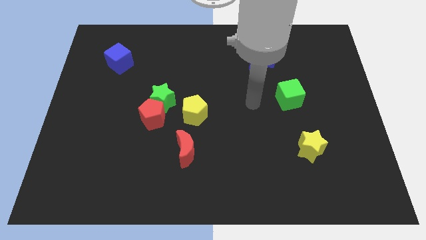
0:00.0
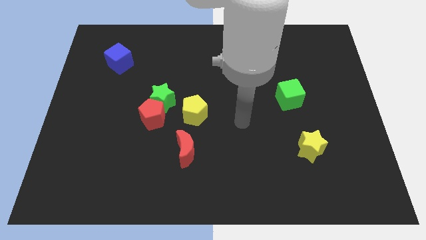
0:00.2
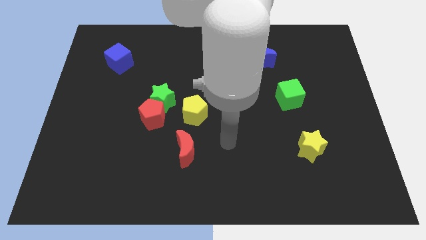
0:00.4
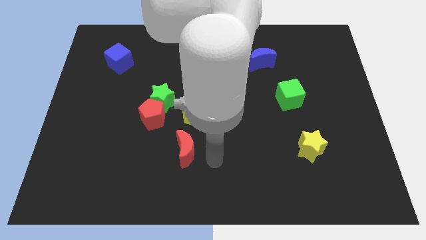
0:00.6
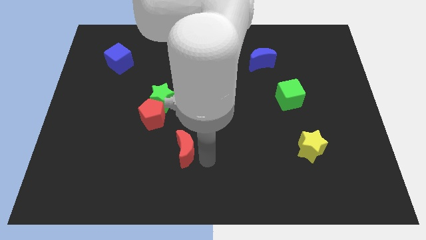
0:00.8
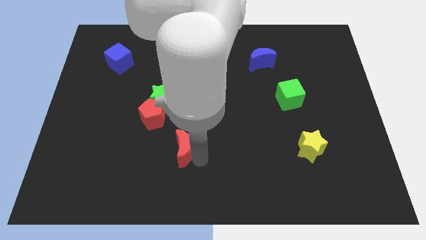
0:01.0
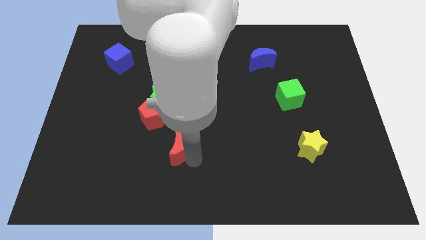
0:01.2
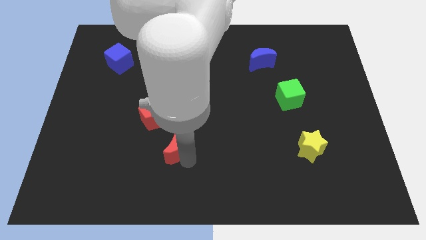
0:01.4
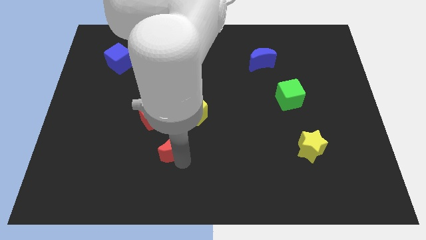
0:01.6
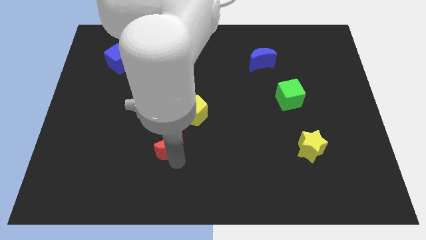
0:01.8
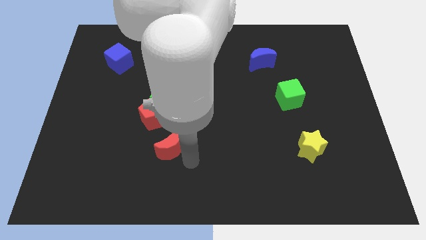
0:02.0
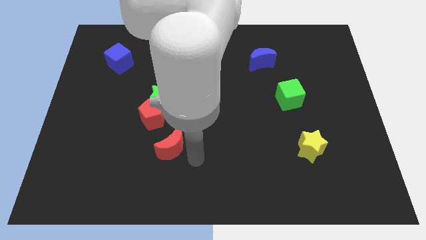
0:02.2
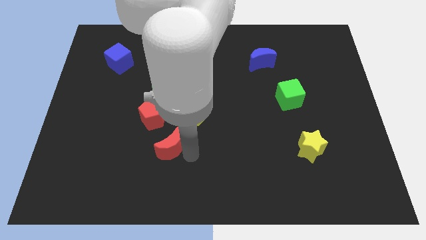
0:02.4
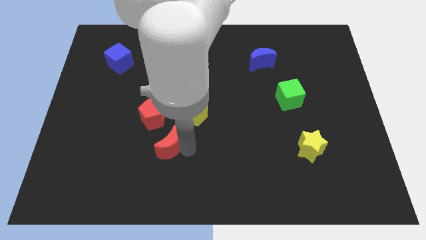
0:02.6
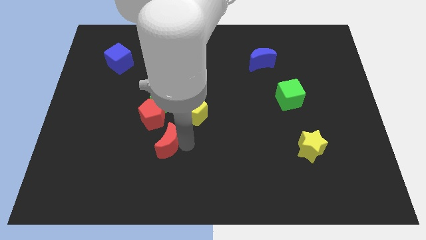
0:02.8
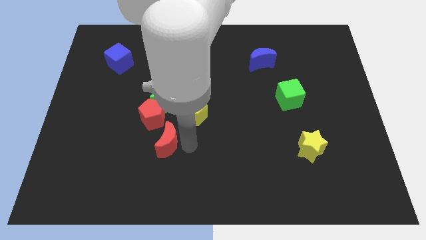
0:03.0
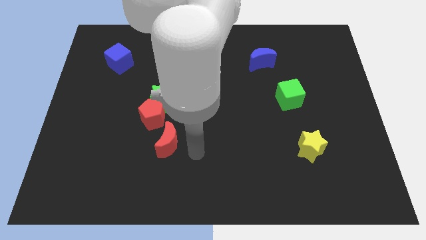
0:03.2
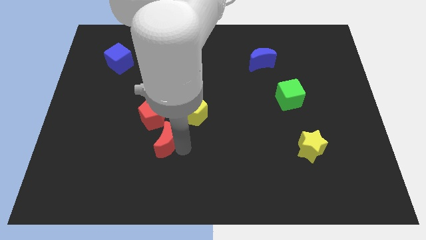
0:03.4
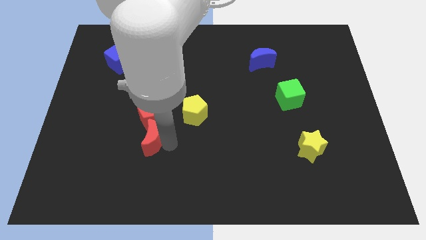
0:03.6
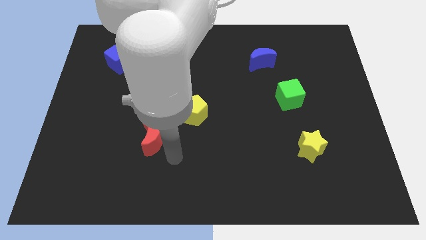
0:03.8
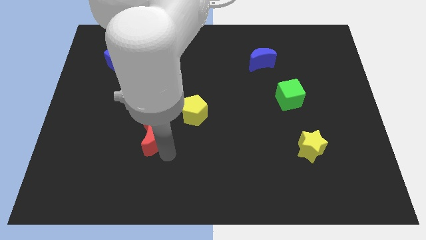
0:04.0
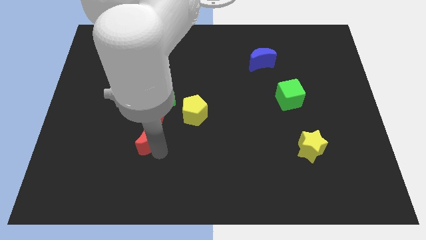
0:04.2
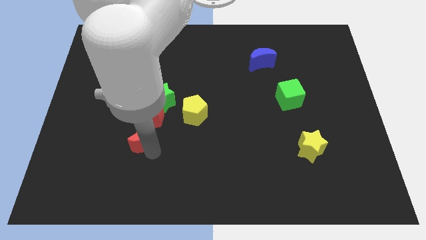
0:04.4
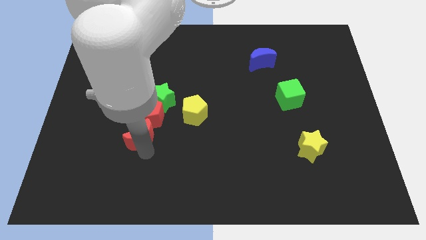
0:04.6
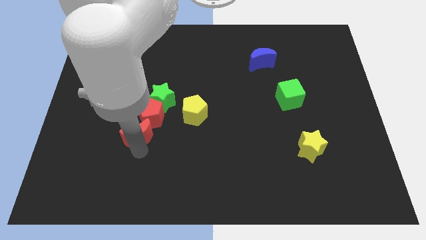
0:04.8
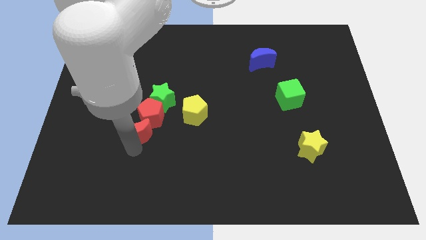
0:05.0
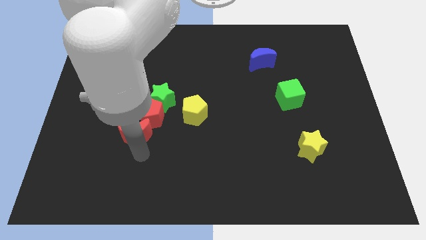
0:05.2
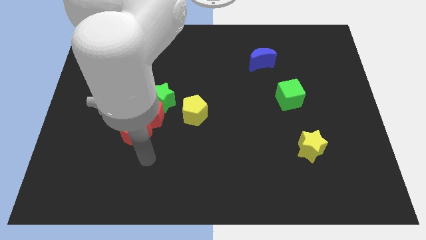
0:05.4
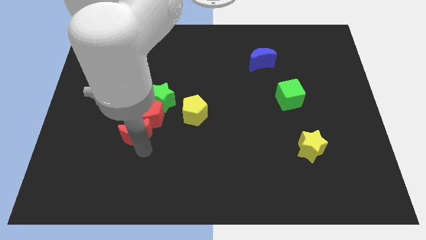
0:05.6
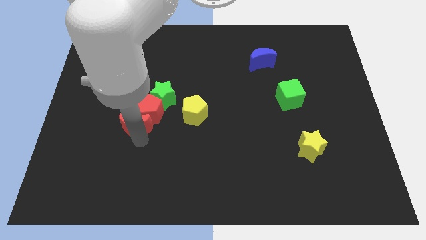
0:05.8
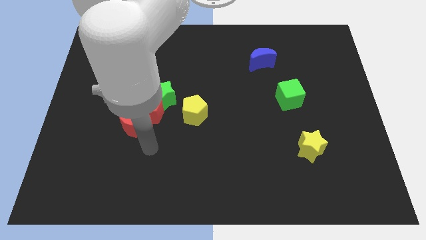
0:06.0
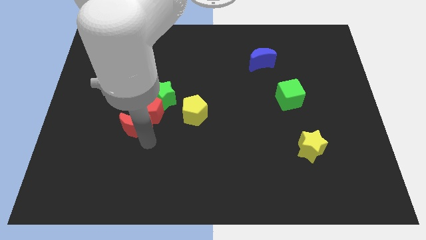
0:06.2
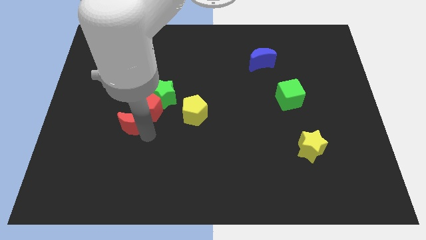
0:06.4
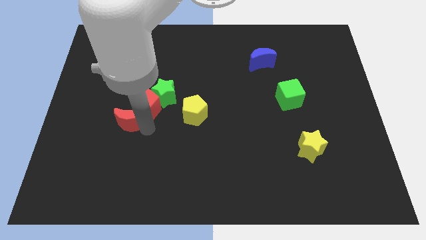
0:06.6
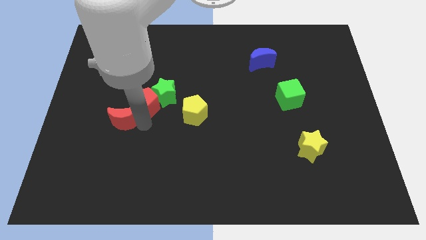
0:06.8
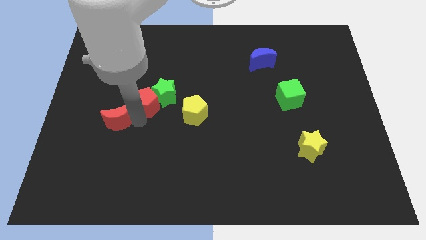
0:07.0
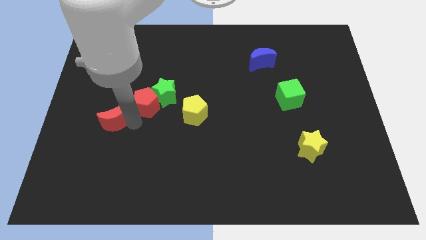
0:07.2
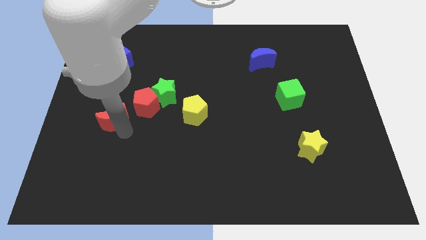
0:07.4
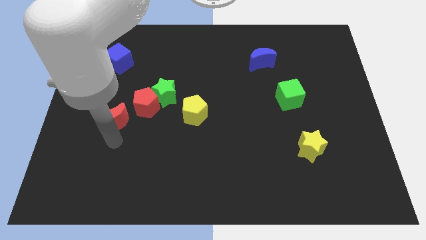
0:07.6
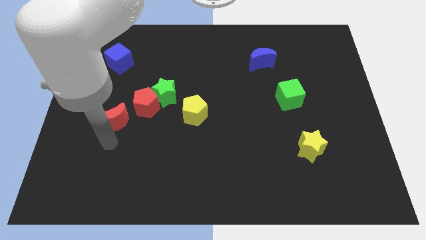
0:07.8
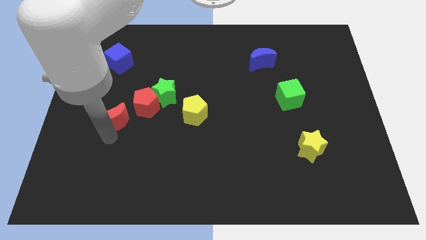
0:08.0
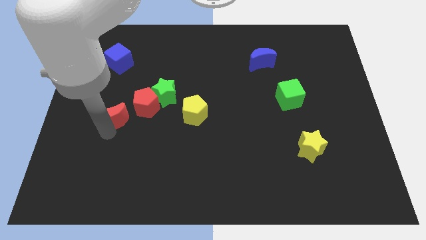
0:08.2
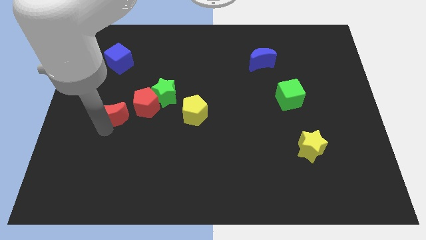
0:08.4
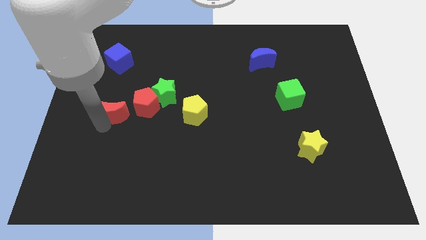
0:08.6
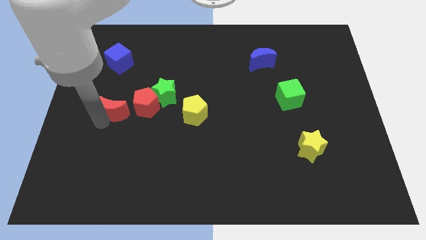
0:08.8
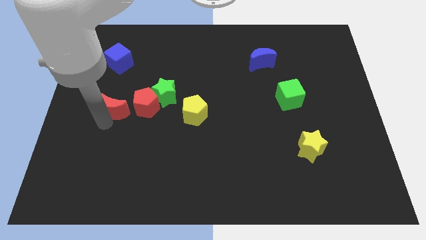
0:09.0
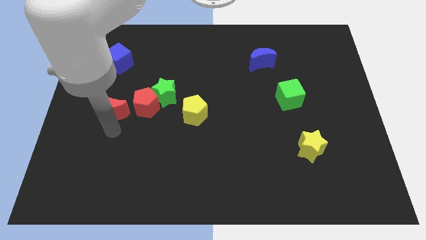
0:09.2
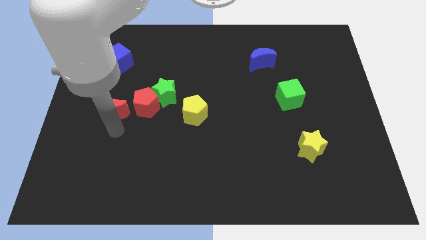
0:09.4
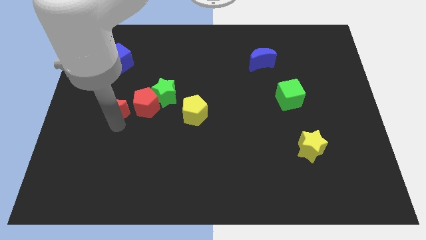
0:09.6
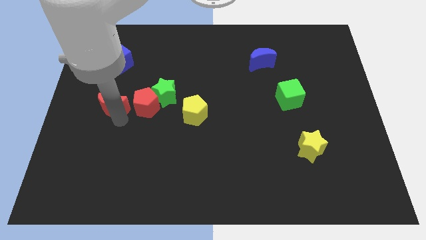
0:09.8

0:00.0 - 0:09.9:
slide the red moon diagonally up and to the left

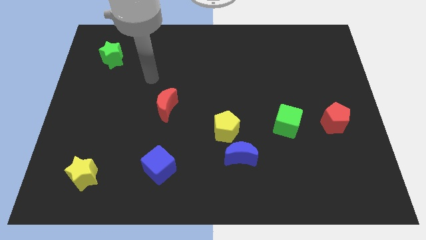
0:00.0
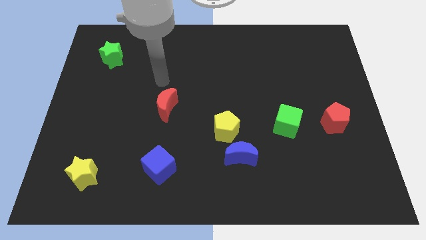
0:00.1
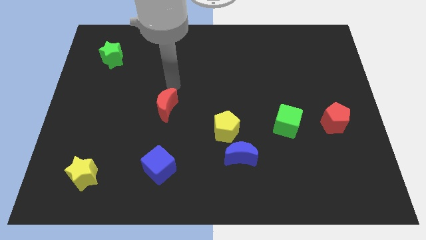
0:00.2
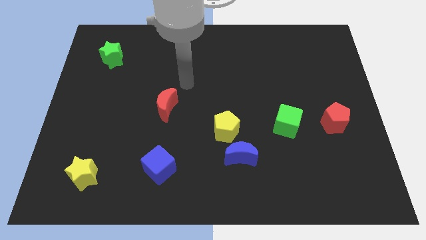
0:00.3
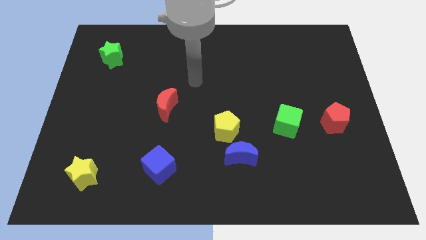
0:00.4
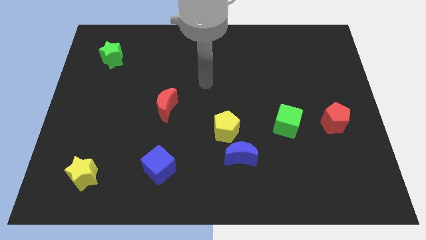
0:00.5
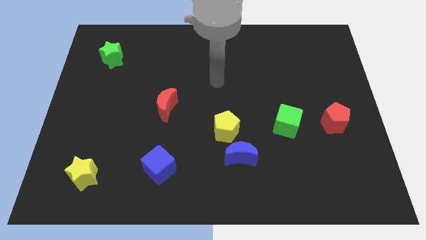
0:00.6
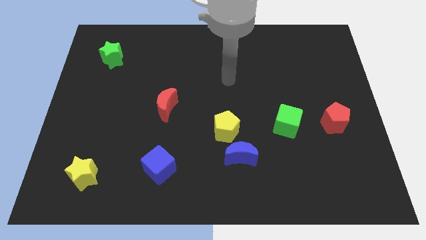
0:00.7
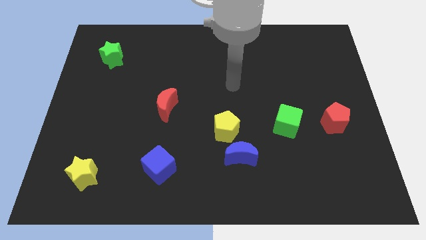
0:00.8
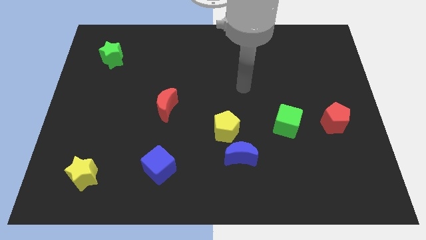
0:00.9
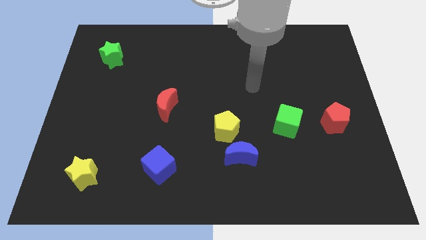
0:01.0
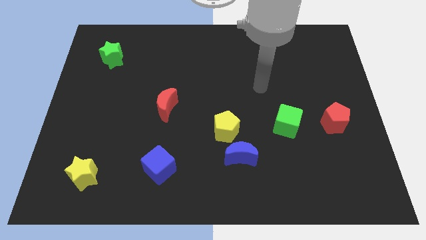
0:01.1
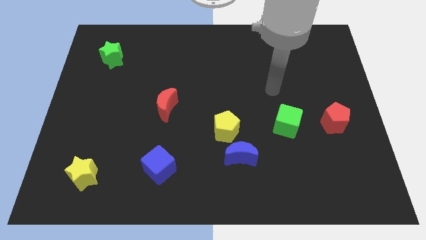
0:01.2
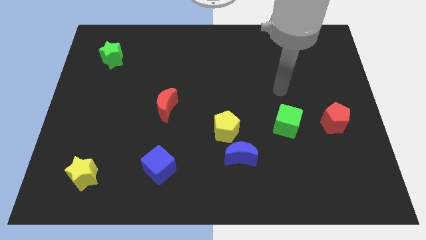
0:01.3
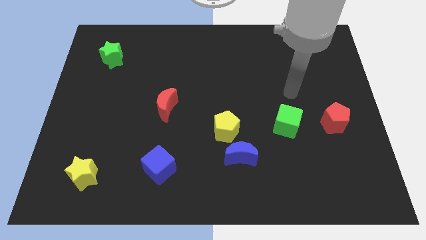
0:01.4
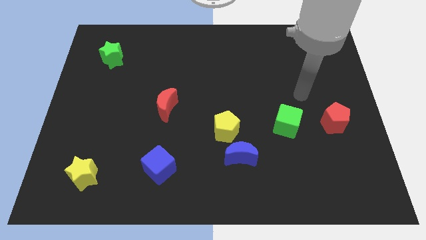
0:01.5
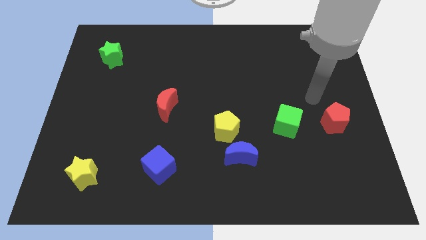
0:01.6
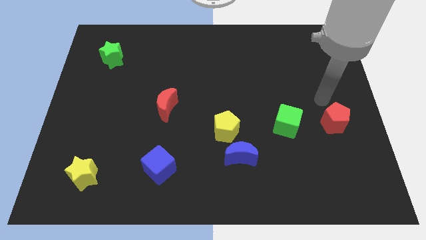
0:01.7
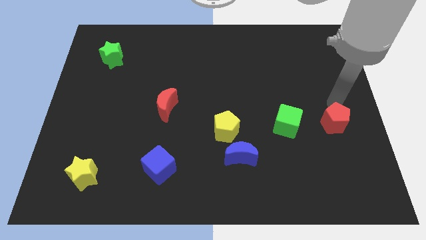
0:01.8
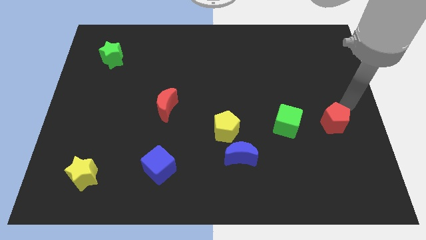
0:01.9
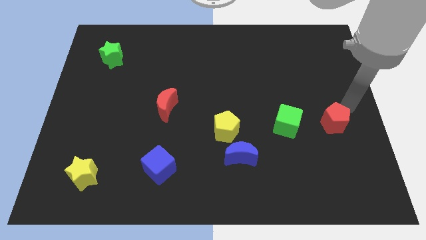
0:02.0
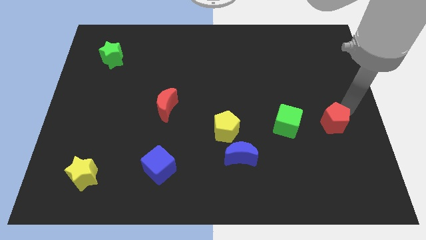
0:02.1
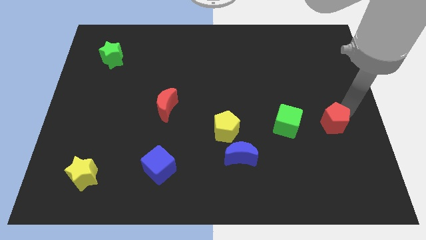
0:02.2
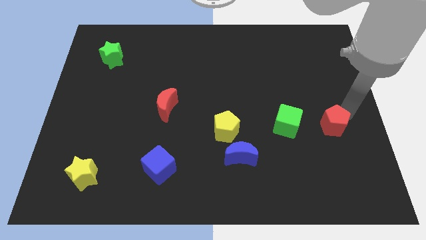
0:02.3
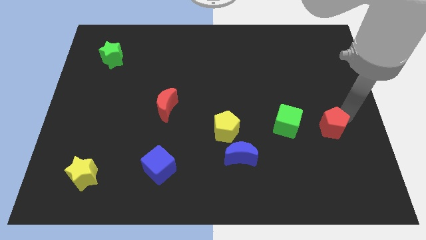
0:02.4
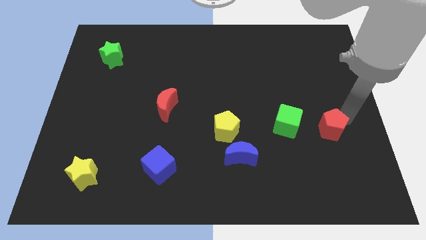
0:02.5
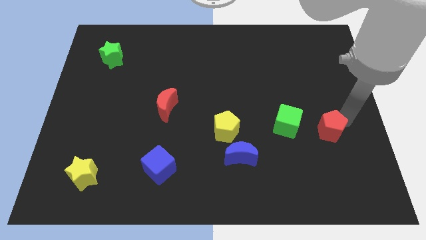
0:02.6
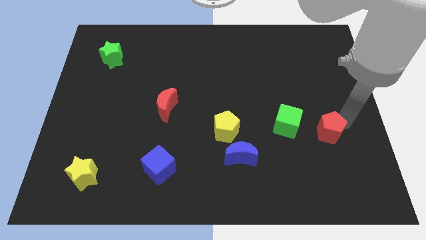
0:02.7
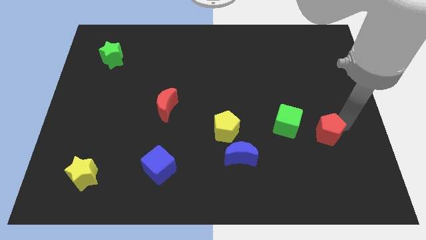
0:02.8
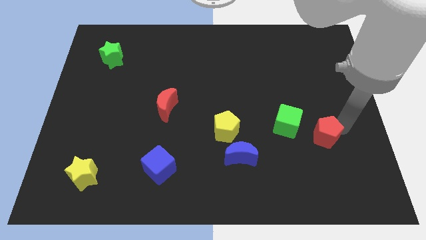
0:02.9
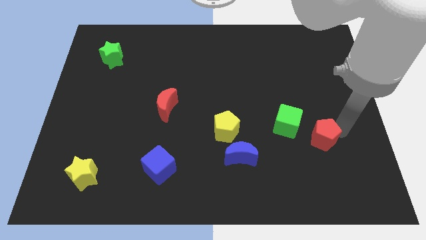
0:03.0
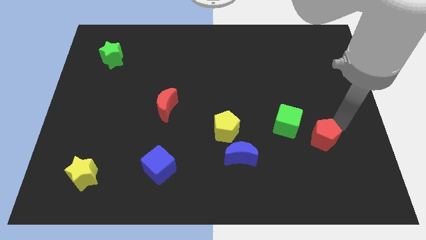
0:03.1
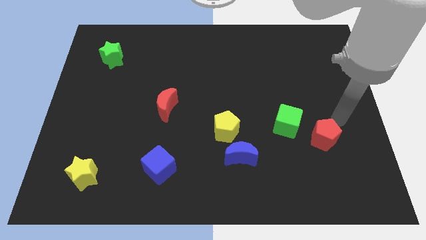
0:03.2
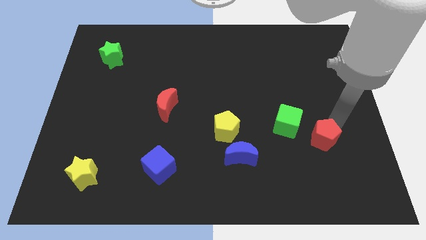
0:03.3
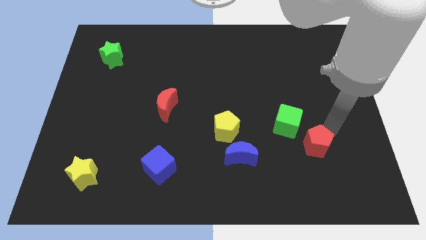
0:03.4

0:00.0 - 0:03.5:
push the red pentagon downwards and then to the left a little bit
